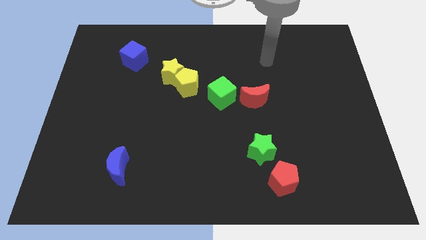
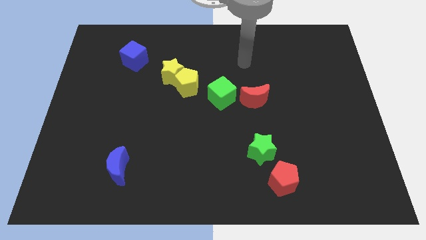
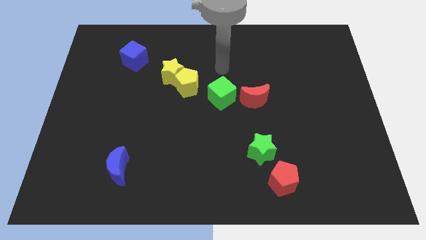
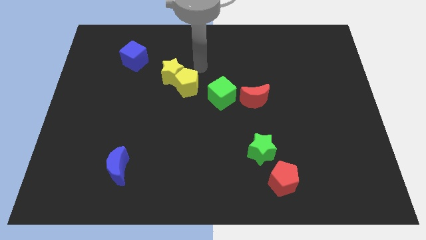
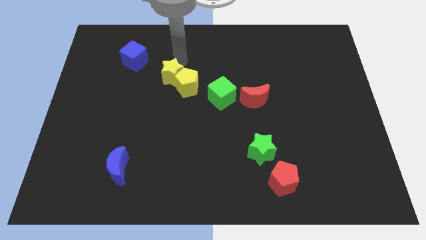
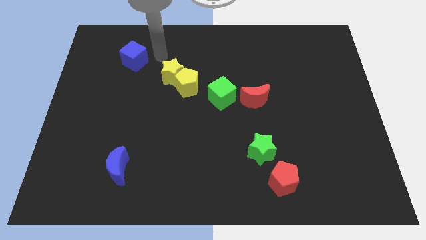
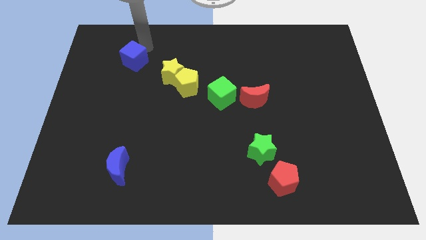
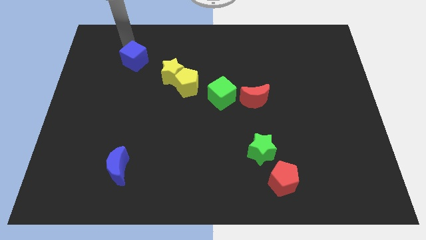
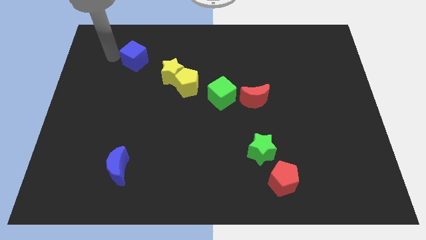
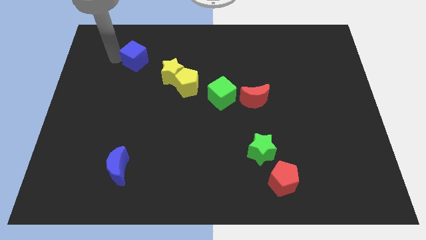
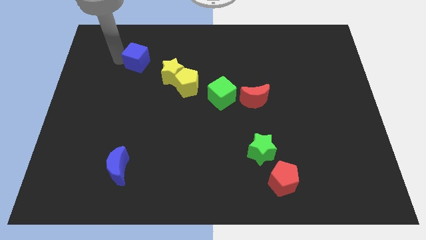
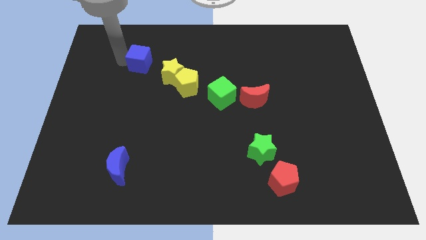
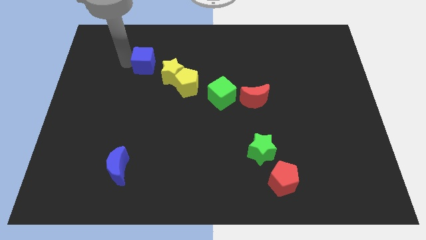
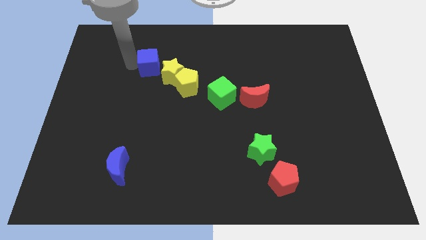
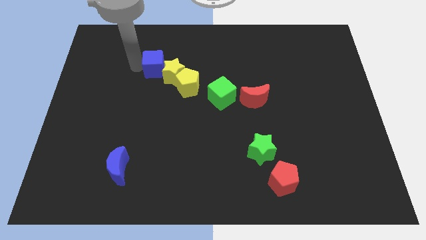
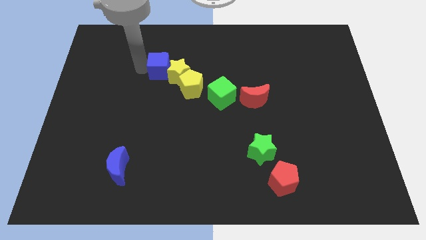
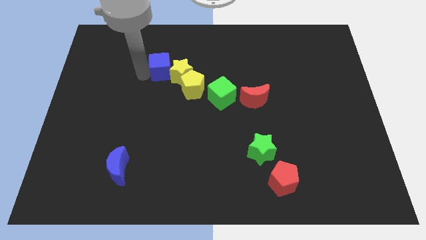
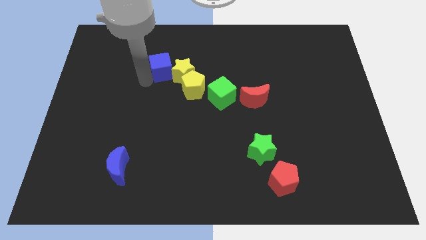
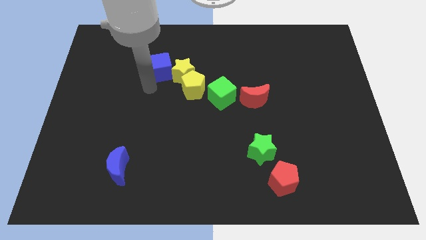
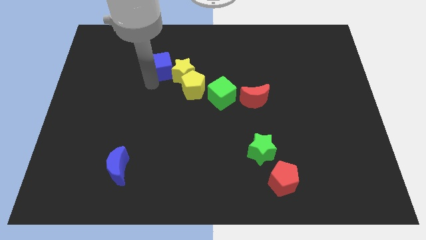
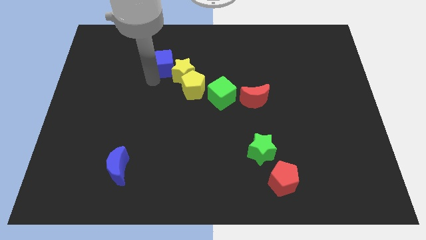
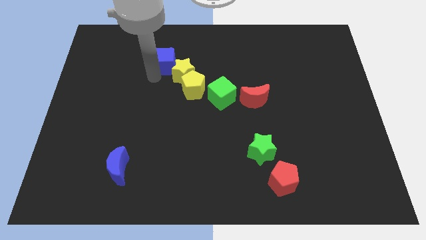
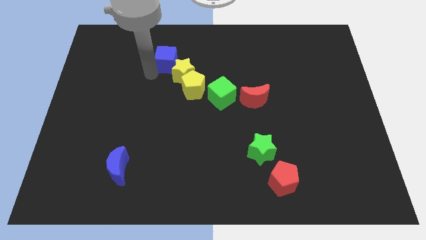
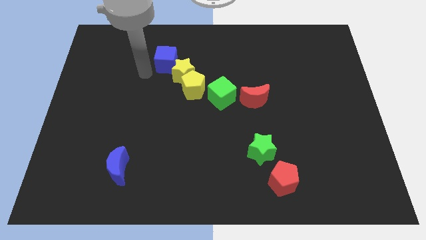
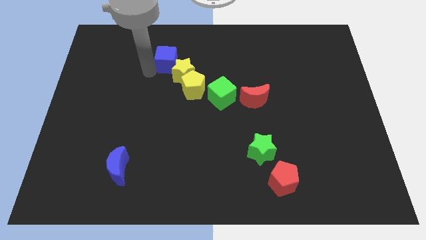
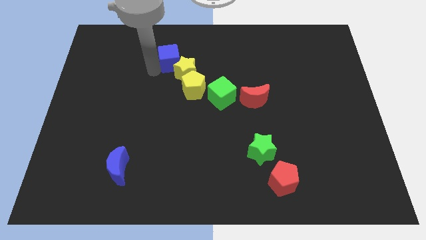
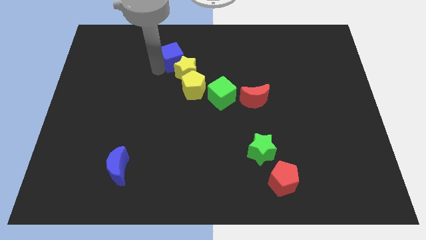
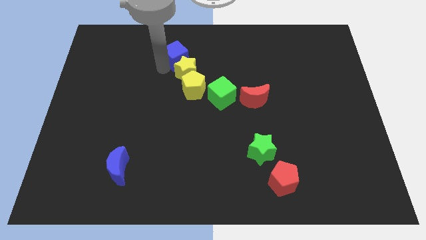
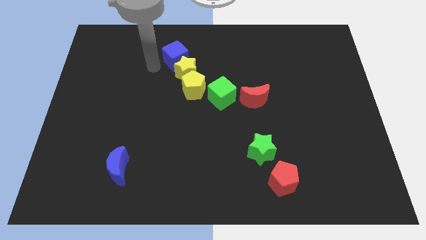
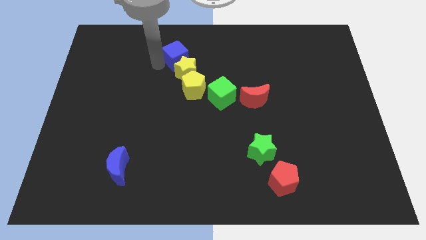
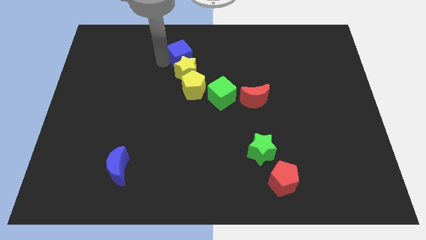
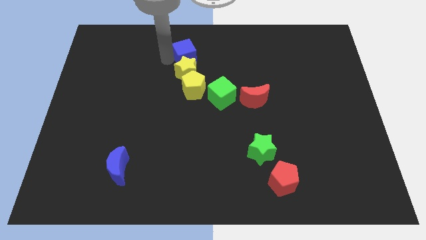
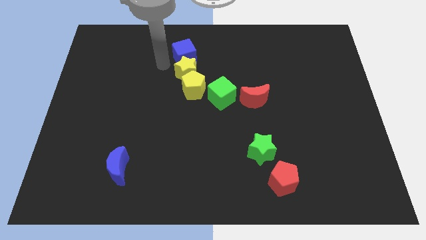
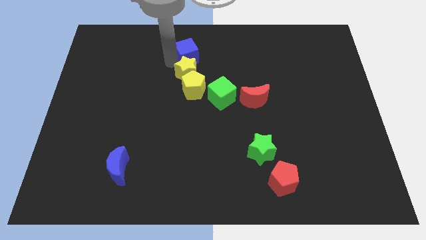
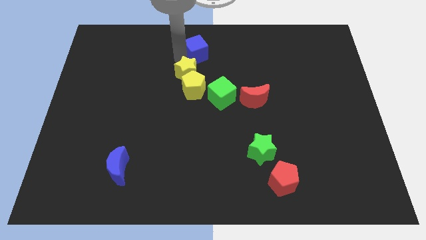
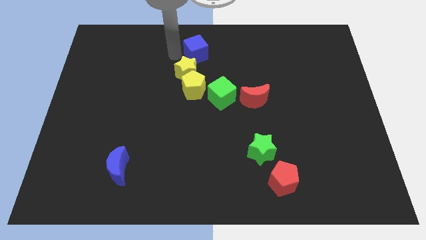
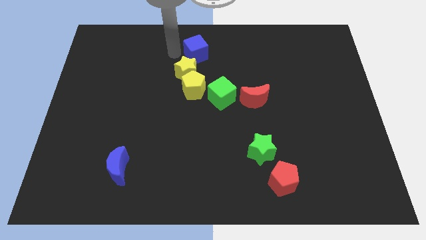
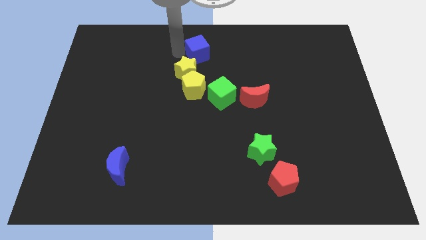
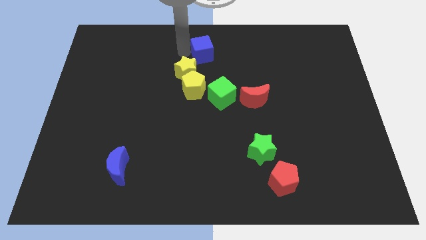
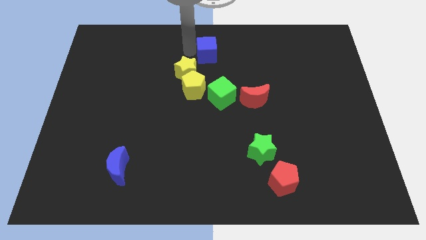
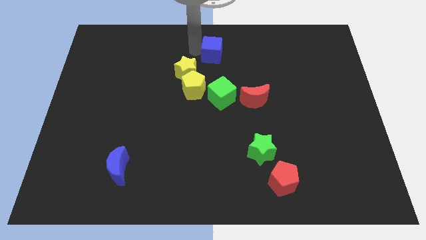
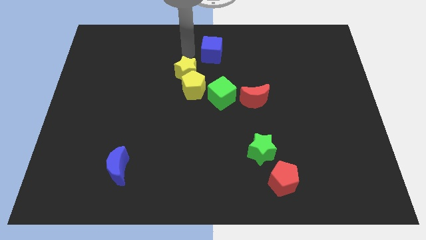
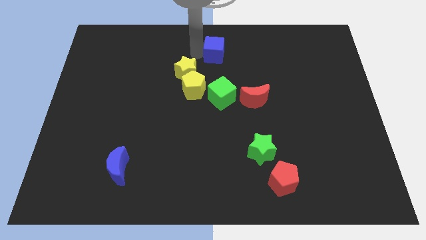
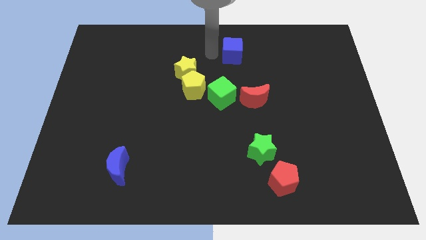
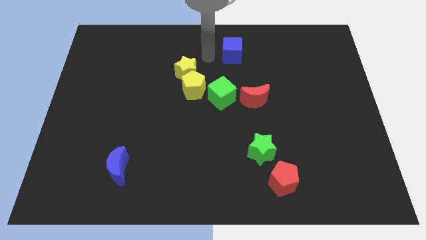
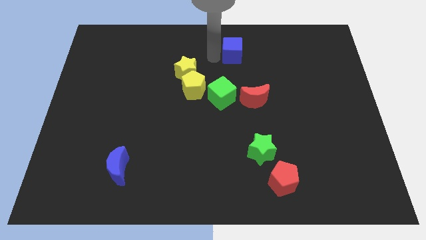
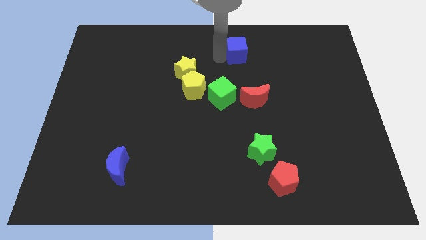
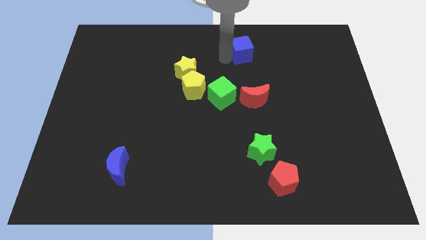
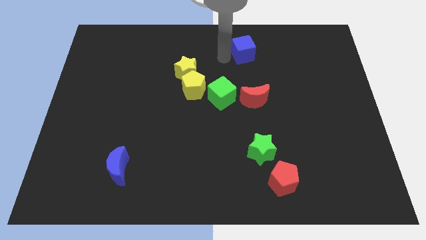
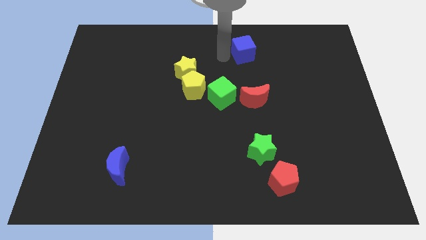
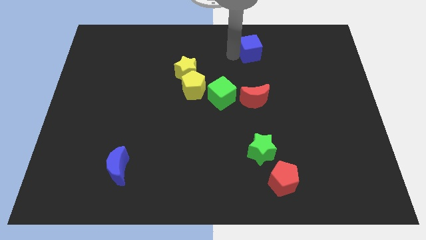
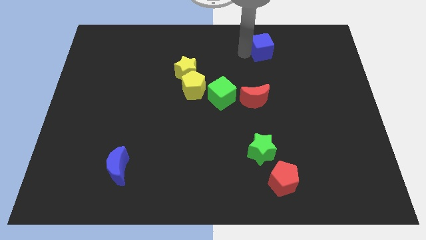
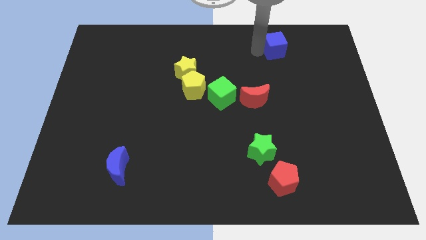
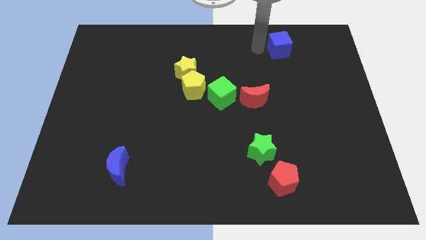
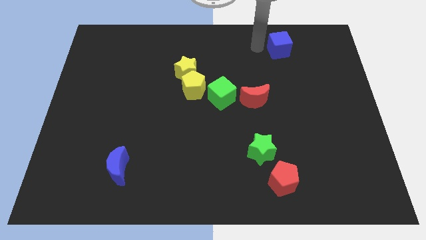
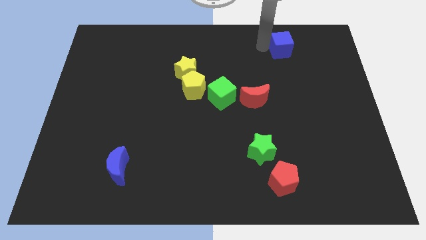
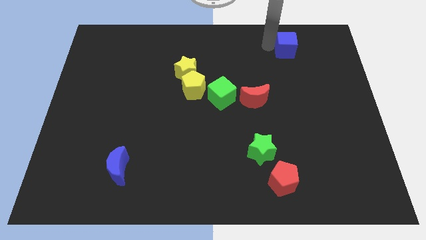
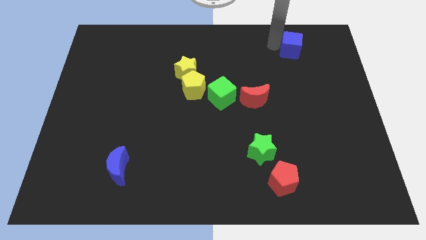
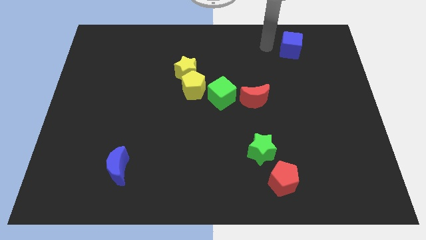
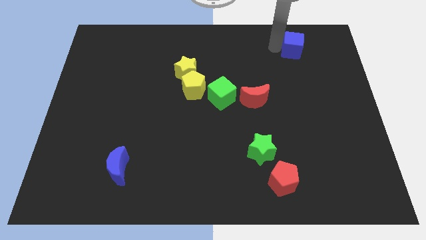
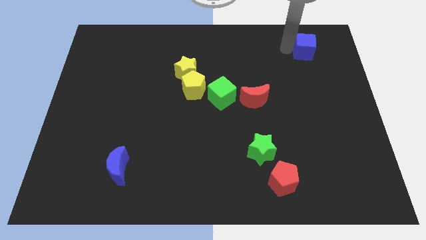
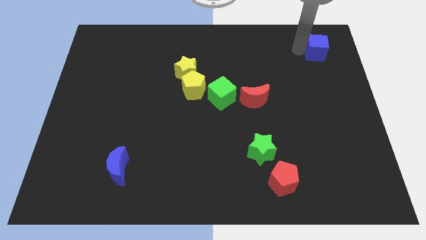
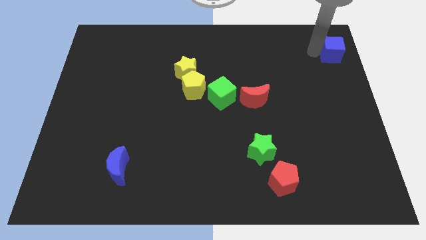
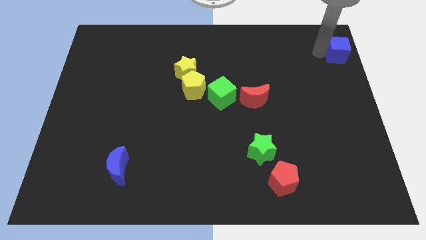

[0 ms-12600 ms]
move the blue cube to the upper right corner
